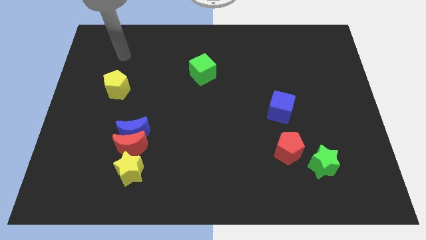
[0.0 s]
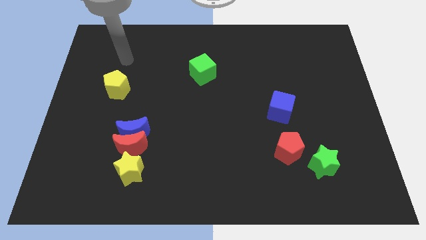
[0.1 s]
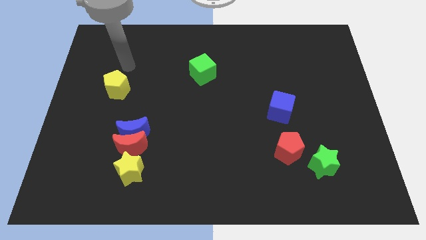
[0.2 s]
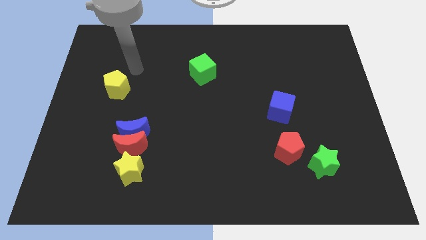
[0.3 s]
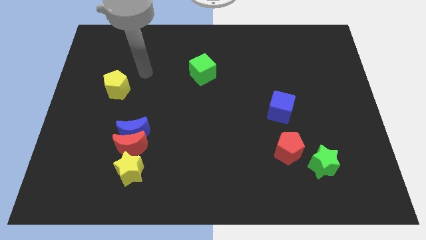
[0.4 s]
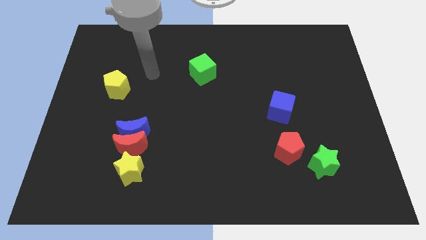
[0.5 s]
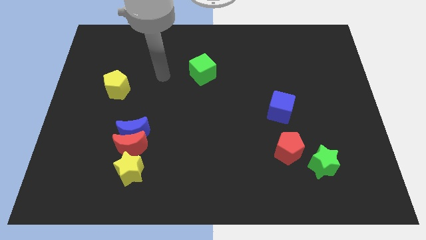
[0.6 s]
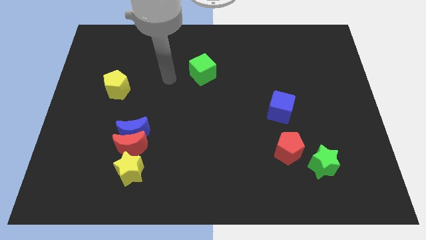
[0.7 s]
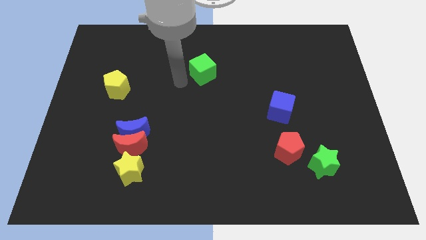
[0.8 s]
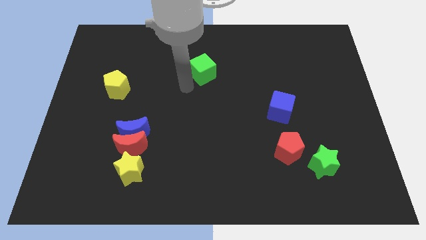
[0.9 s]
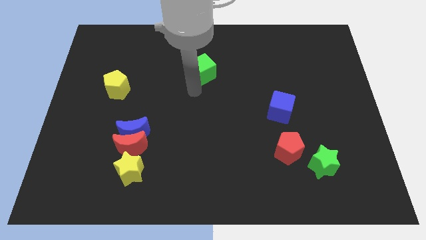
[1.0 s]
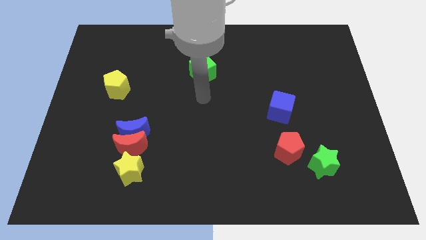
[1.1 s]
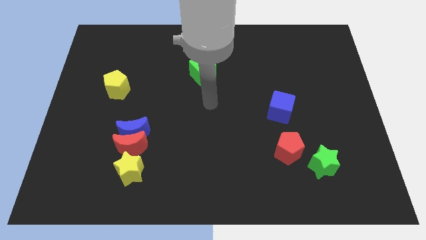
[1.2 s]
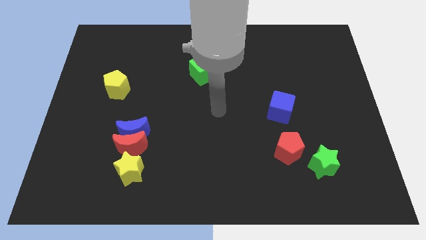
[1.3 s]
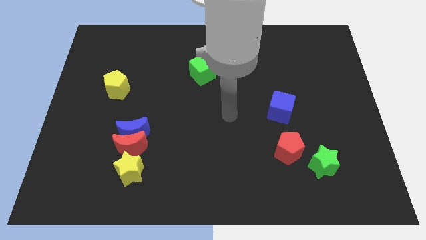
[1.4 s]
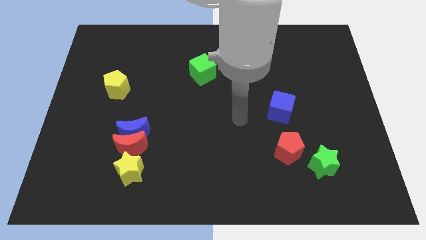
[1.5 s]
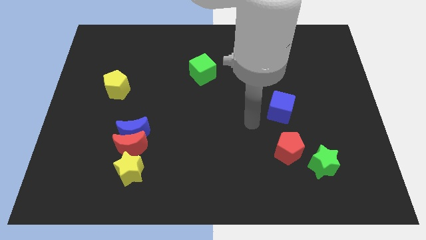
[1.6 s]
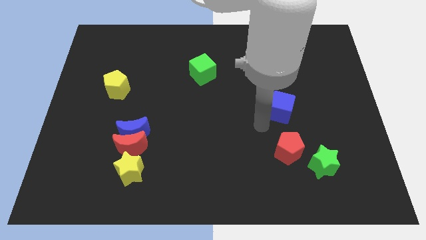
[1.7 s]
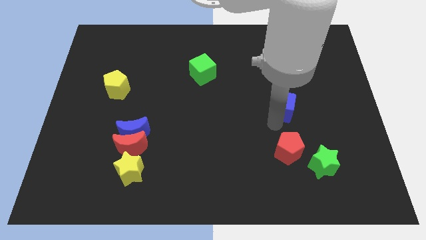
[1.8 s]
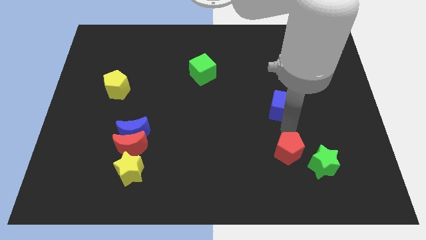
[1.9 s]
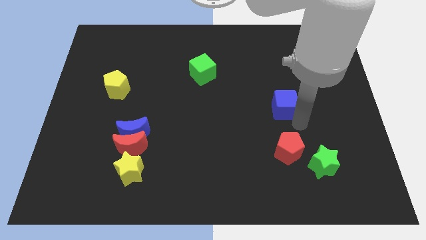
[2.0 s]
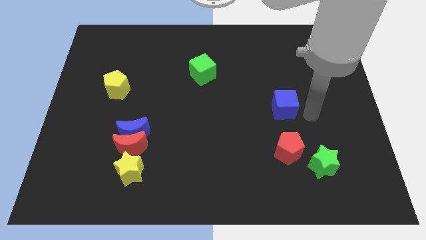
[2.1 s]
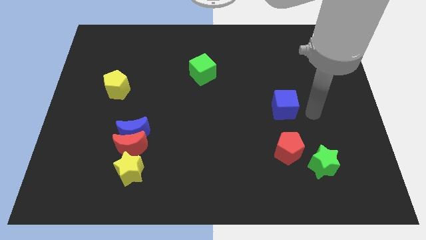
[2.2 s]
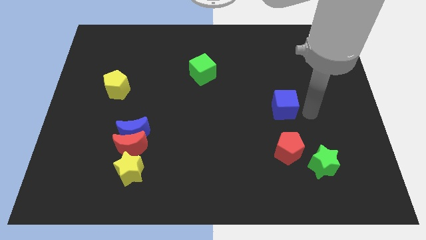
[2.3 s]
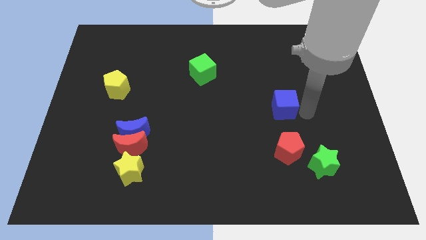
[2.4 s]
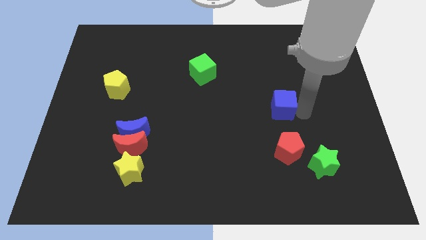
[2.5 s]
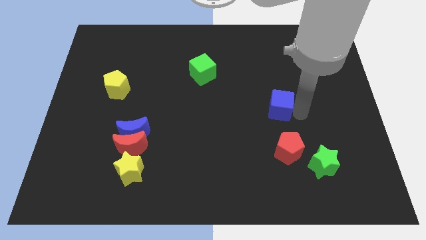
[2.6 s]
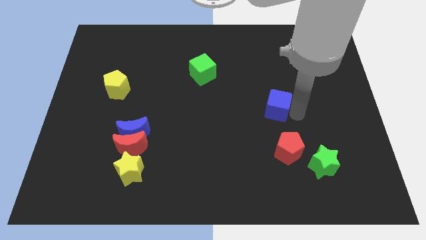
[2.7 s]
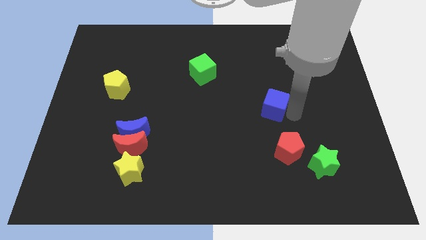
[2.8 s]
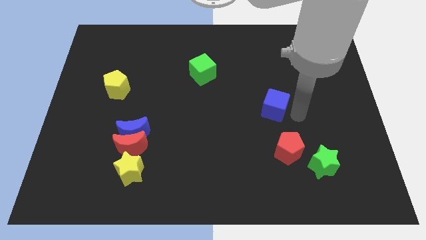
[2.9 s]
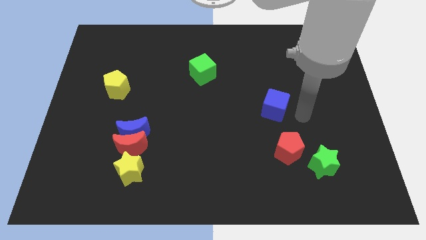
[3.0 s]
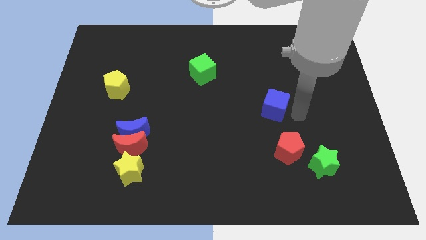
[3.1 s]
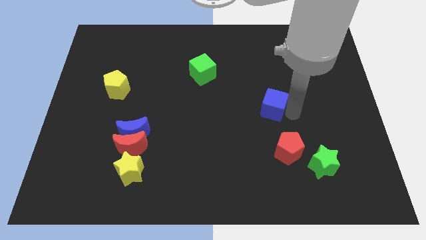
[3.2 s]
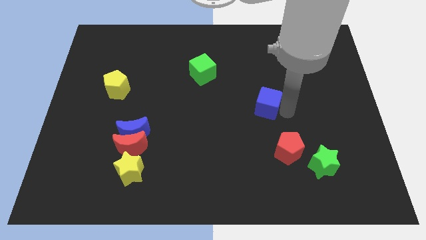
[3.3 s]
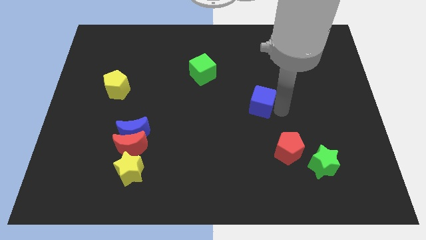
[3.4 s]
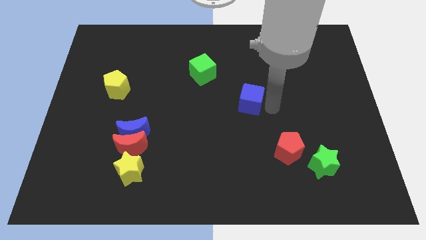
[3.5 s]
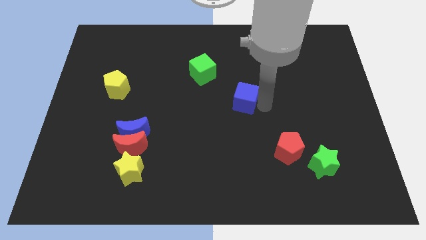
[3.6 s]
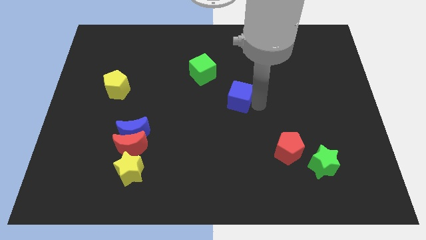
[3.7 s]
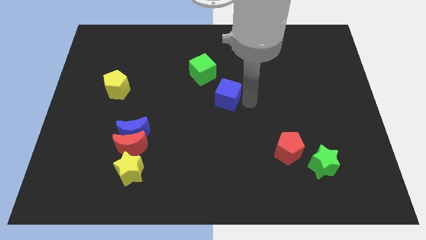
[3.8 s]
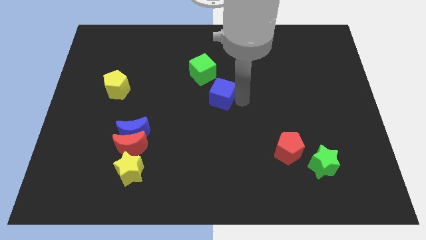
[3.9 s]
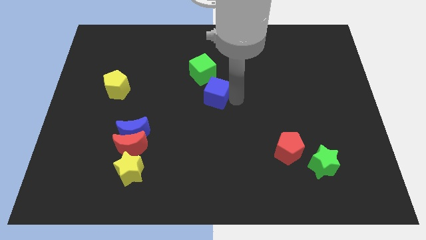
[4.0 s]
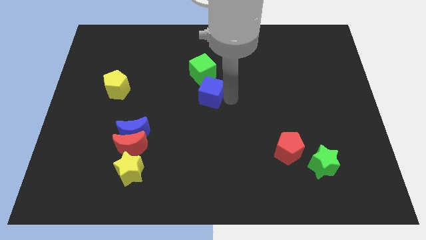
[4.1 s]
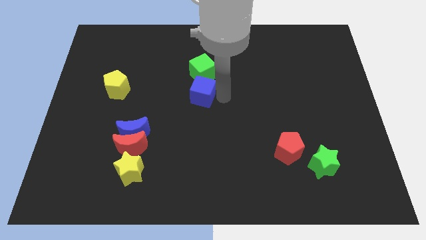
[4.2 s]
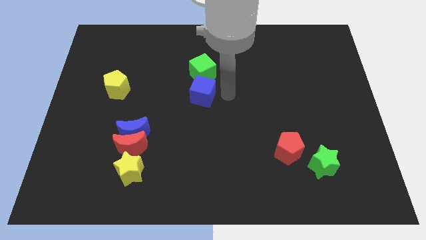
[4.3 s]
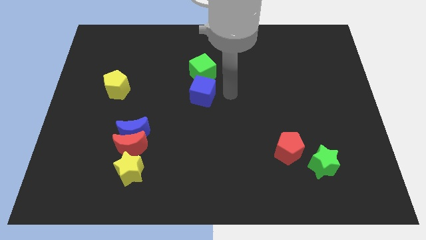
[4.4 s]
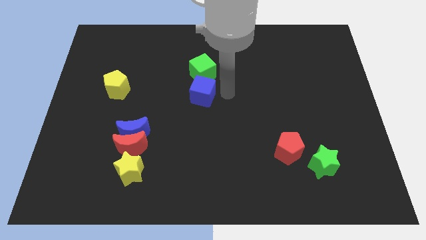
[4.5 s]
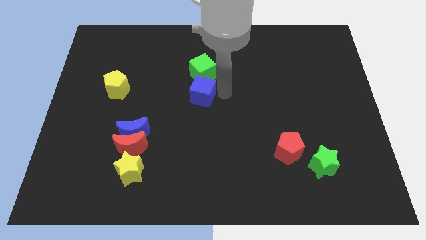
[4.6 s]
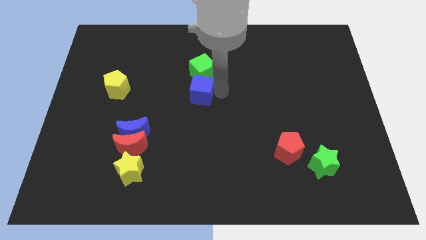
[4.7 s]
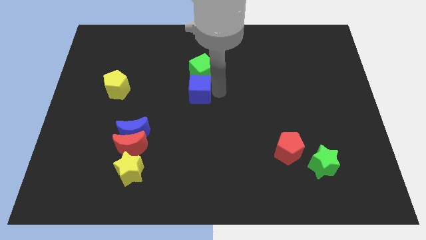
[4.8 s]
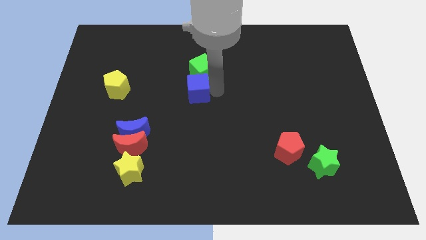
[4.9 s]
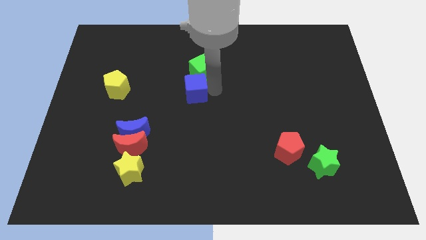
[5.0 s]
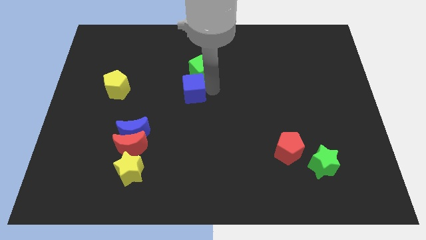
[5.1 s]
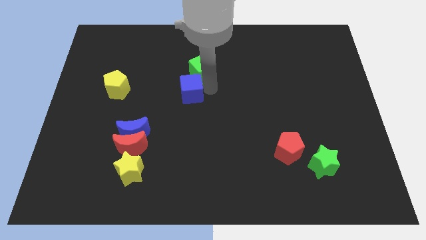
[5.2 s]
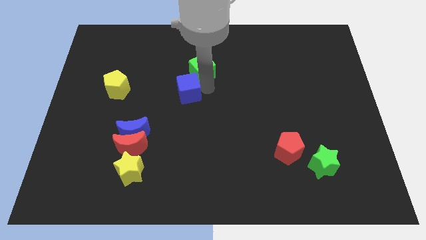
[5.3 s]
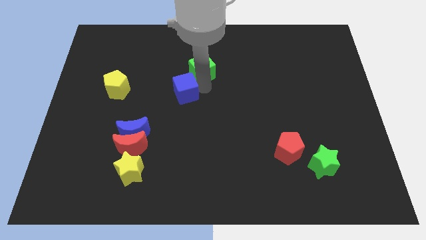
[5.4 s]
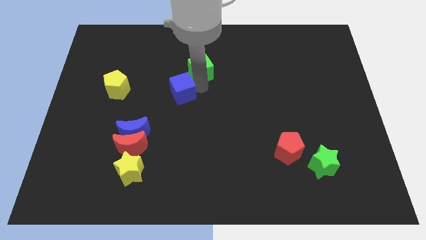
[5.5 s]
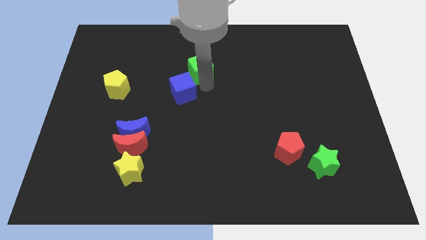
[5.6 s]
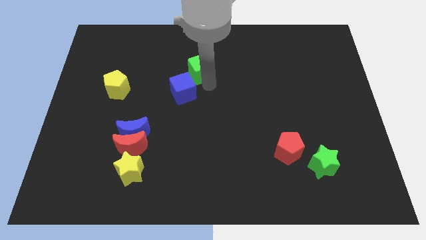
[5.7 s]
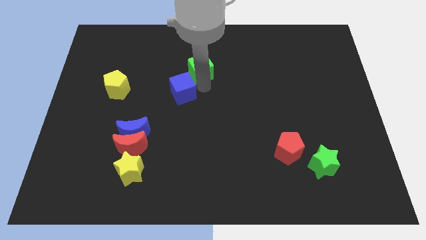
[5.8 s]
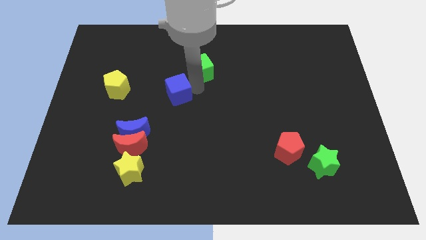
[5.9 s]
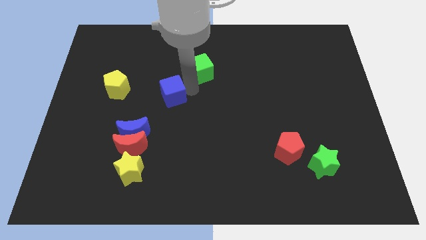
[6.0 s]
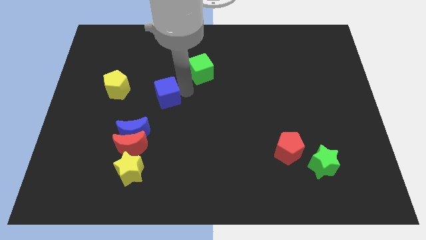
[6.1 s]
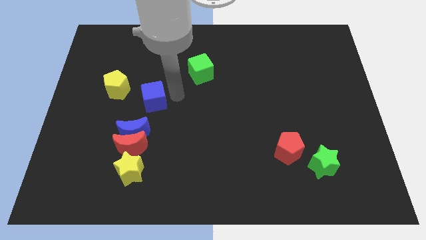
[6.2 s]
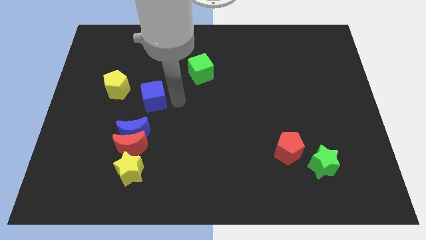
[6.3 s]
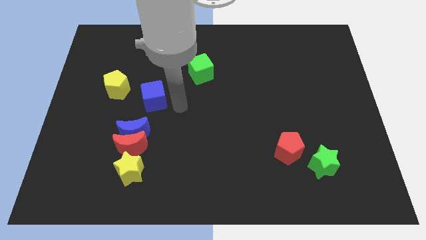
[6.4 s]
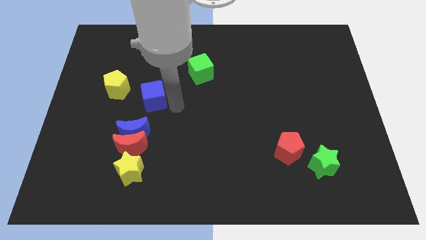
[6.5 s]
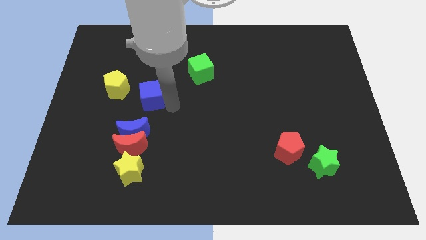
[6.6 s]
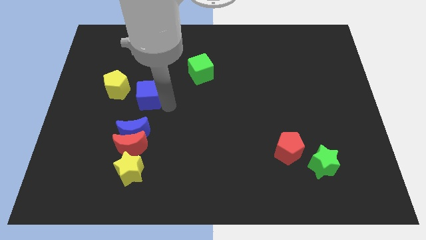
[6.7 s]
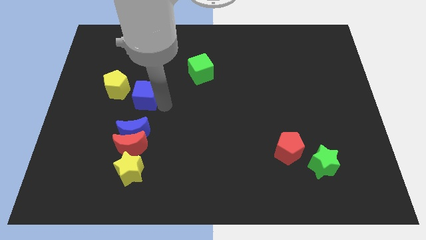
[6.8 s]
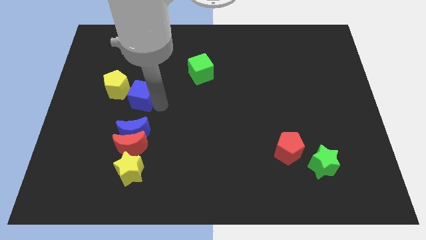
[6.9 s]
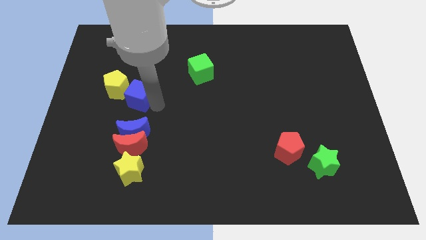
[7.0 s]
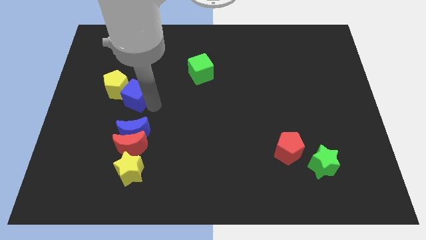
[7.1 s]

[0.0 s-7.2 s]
slide the blue cube to the yellow pentagon

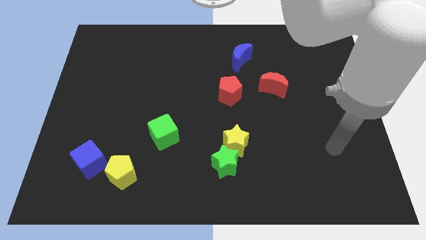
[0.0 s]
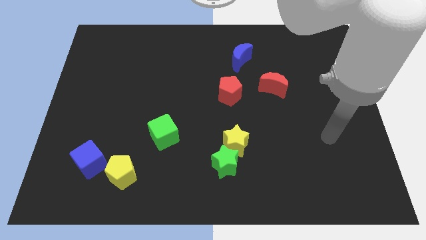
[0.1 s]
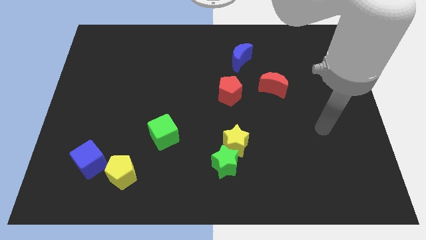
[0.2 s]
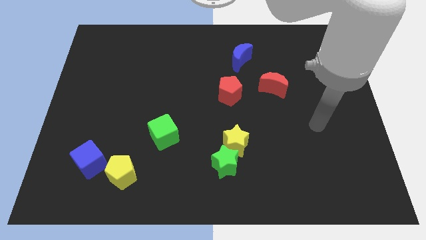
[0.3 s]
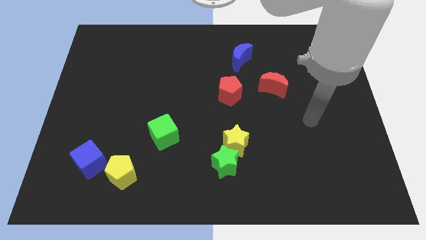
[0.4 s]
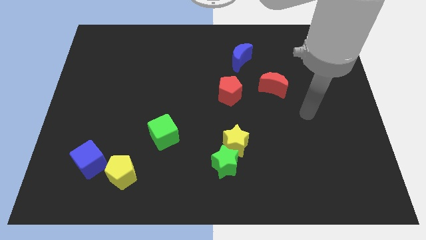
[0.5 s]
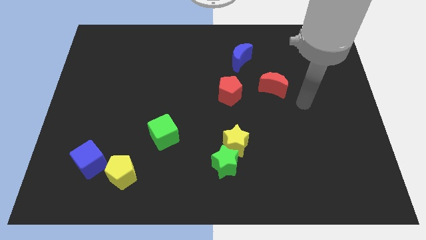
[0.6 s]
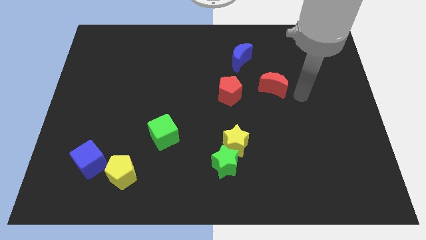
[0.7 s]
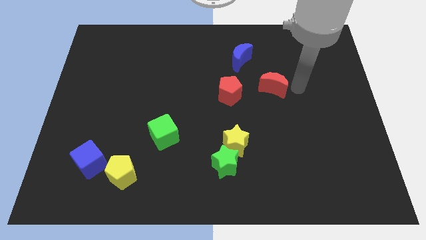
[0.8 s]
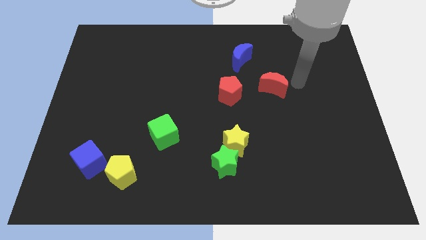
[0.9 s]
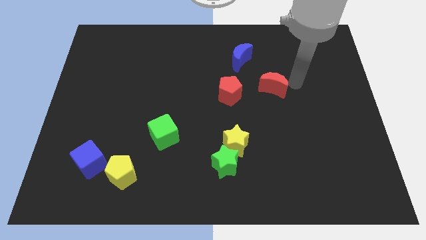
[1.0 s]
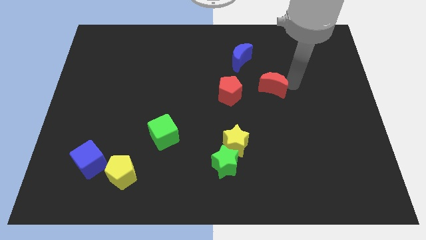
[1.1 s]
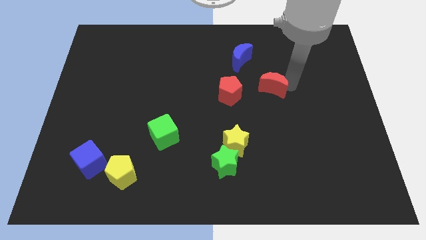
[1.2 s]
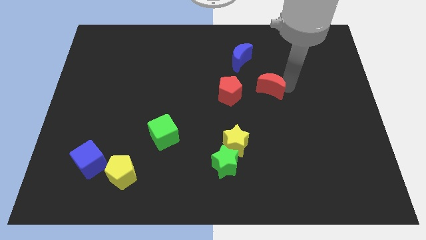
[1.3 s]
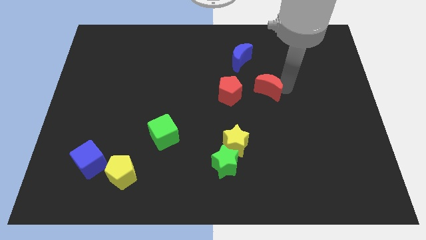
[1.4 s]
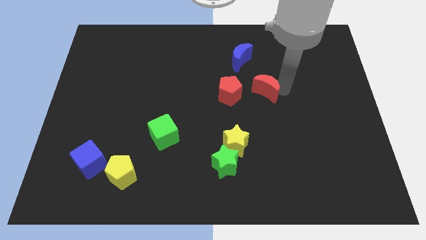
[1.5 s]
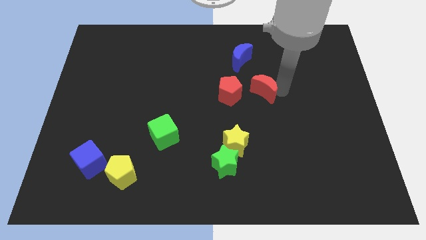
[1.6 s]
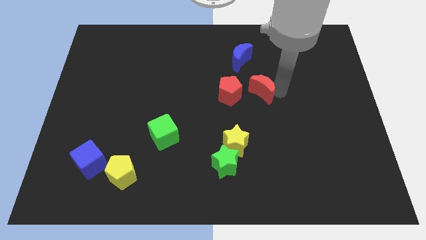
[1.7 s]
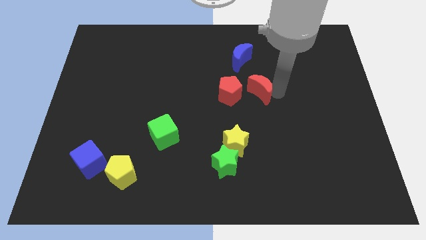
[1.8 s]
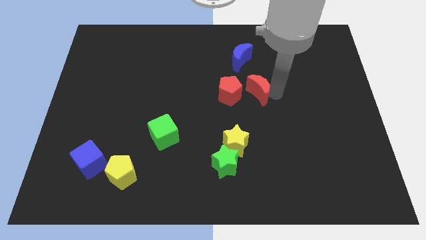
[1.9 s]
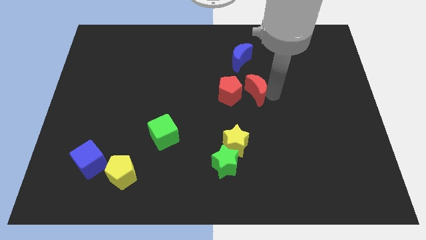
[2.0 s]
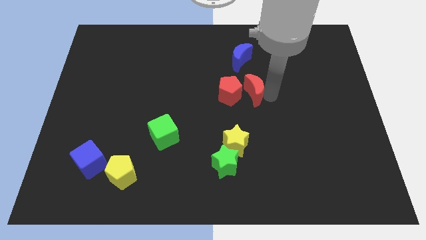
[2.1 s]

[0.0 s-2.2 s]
put the red moon to the red pentagon
